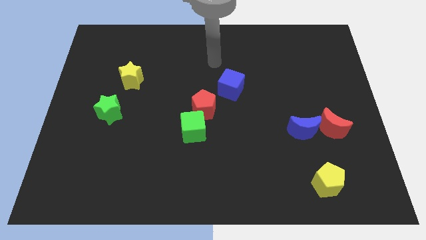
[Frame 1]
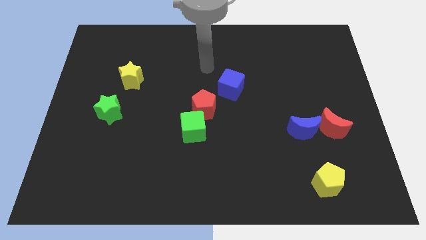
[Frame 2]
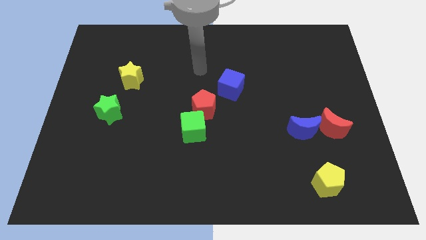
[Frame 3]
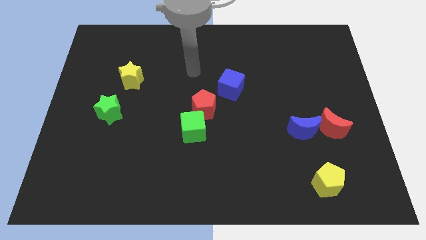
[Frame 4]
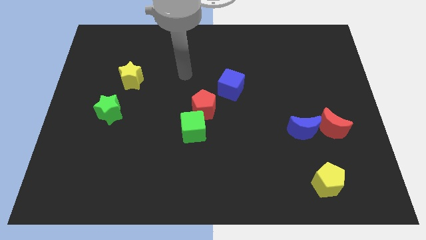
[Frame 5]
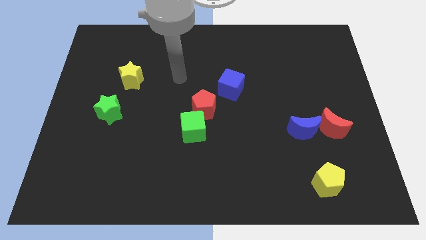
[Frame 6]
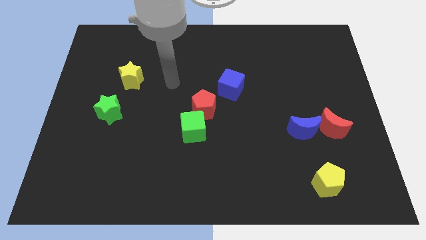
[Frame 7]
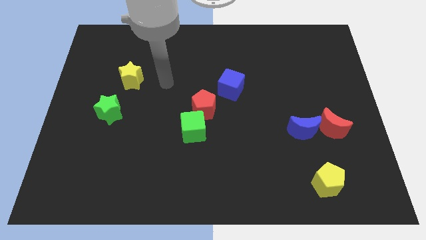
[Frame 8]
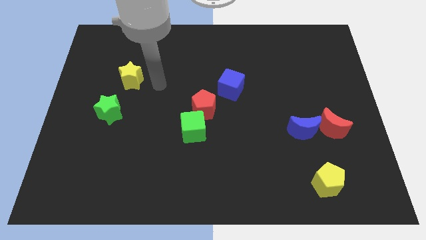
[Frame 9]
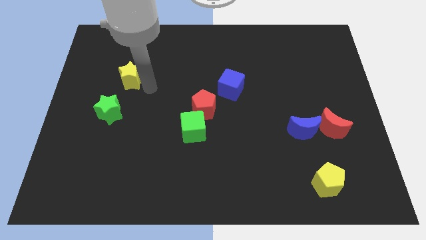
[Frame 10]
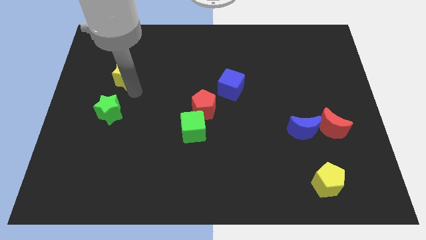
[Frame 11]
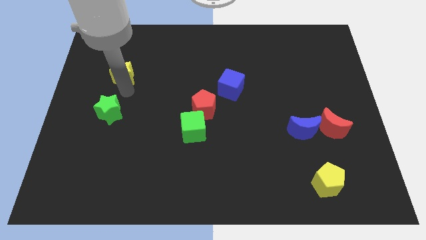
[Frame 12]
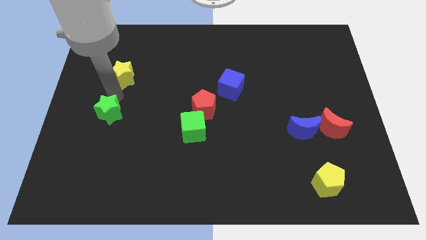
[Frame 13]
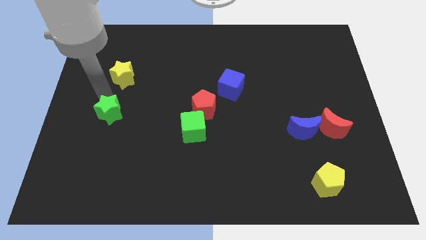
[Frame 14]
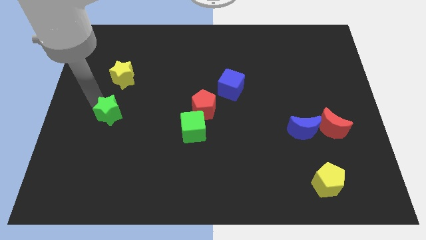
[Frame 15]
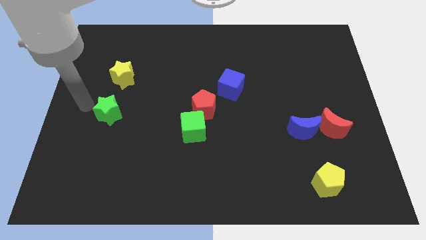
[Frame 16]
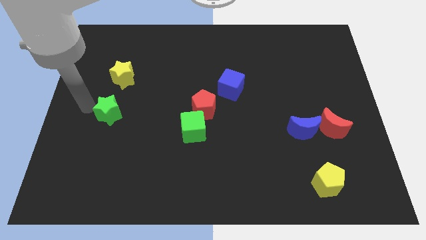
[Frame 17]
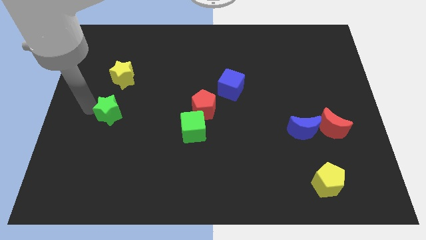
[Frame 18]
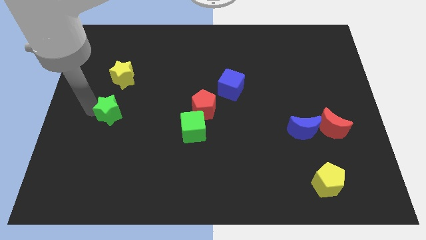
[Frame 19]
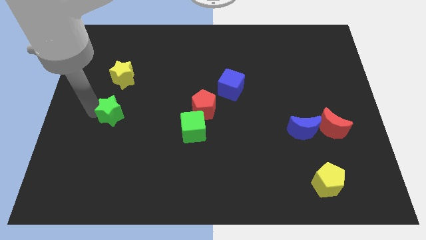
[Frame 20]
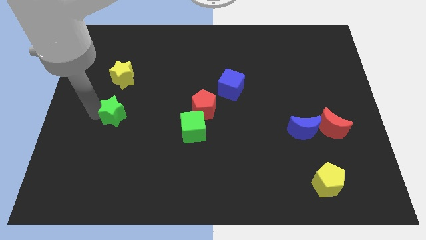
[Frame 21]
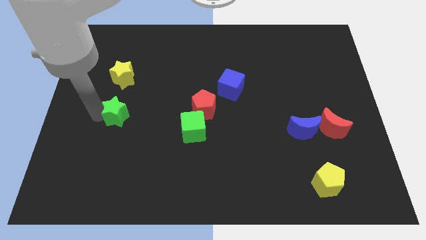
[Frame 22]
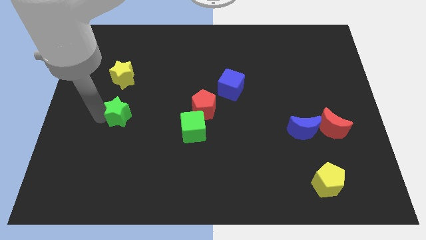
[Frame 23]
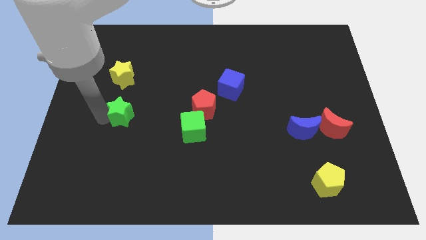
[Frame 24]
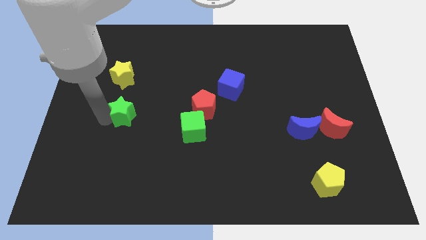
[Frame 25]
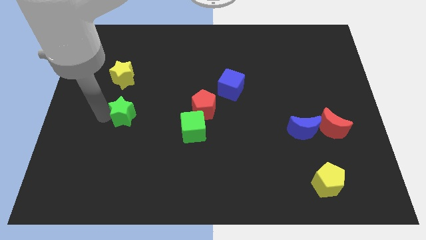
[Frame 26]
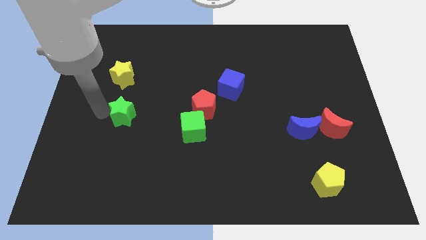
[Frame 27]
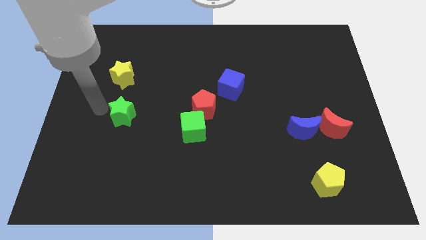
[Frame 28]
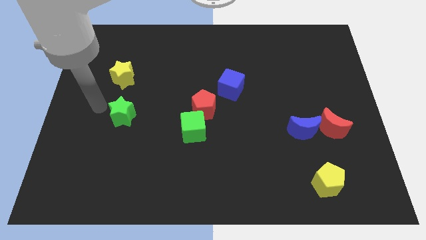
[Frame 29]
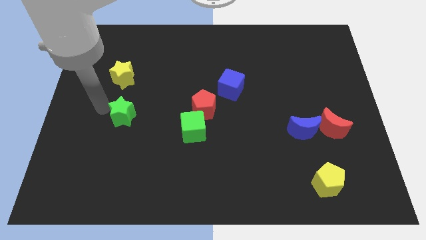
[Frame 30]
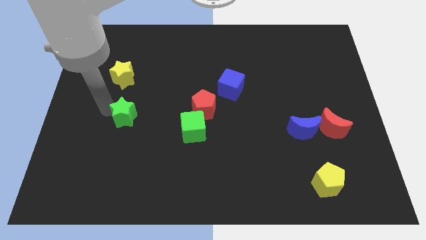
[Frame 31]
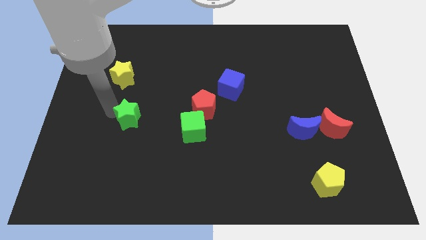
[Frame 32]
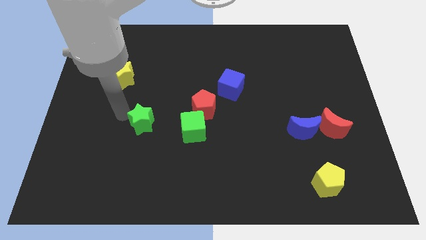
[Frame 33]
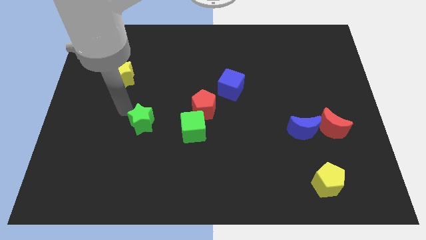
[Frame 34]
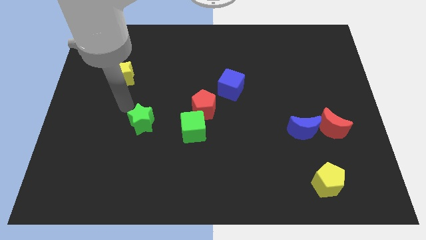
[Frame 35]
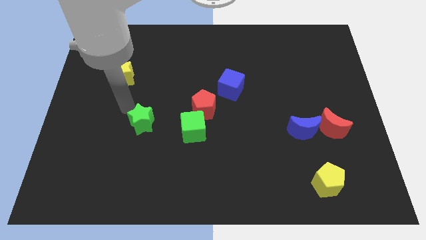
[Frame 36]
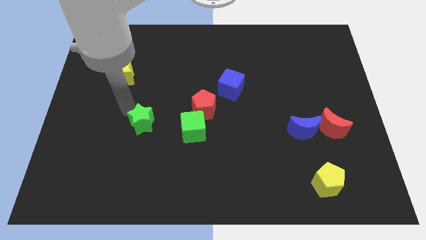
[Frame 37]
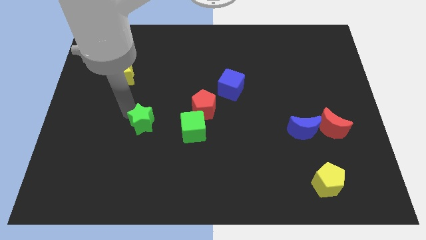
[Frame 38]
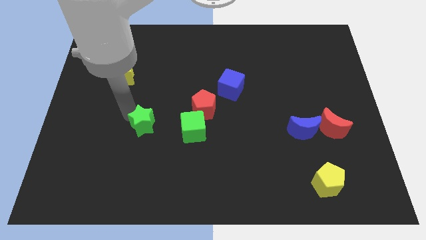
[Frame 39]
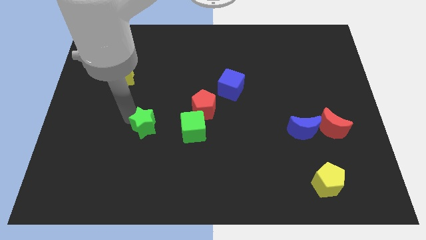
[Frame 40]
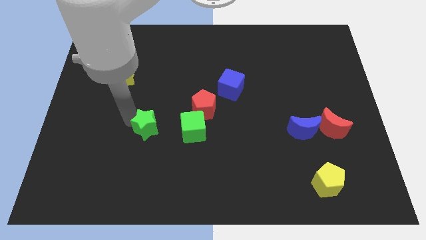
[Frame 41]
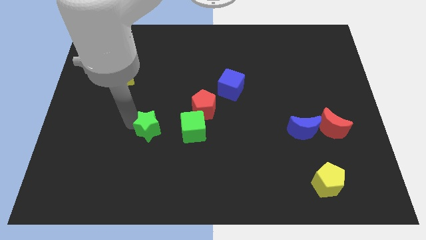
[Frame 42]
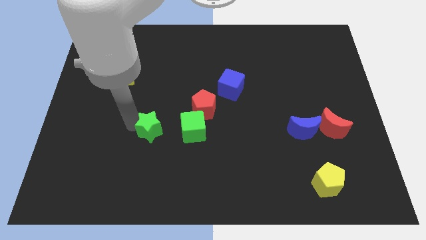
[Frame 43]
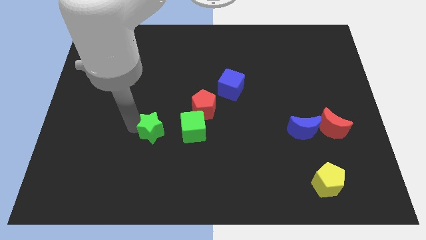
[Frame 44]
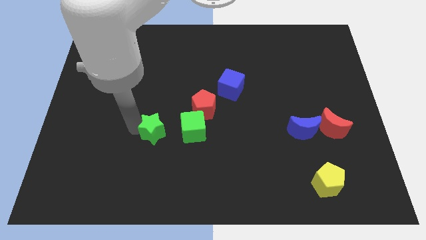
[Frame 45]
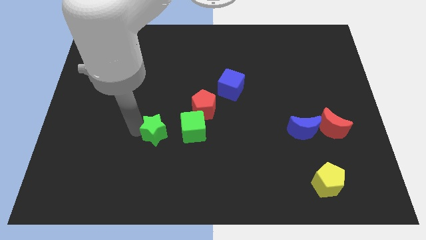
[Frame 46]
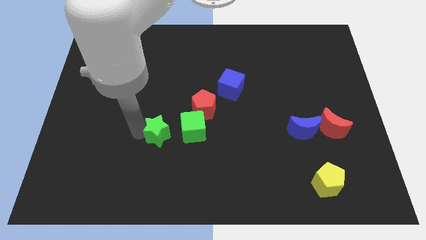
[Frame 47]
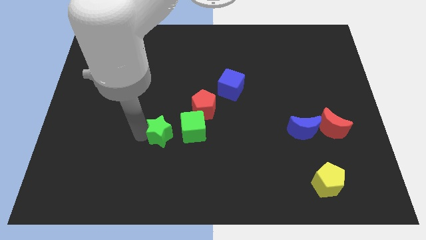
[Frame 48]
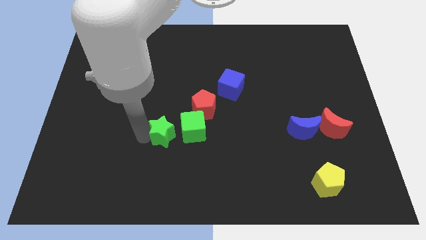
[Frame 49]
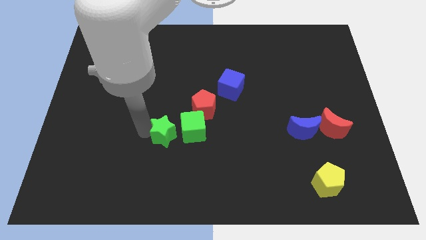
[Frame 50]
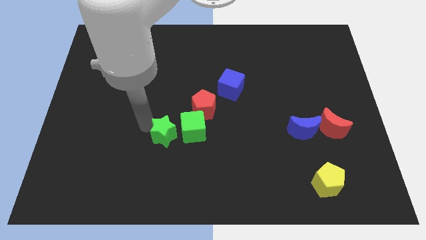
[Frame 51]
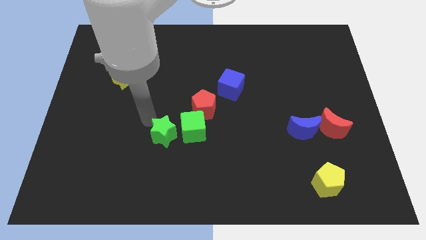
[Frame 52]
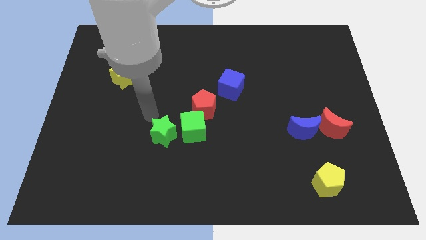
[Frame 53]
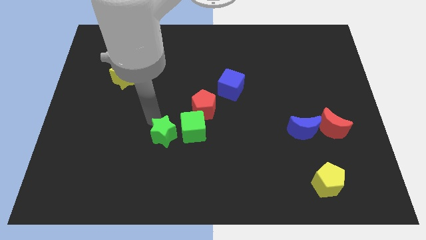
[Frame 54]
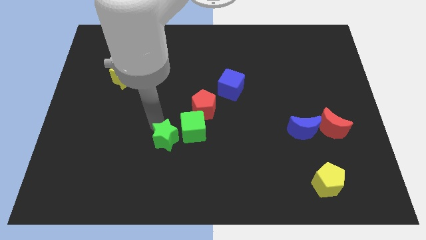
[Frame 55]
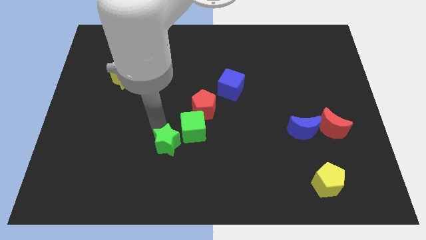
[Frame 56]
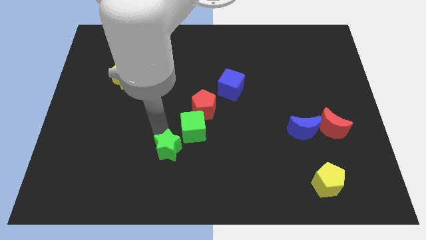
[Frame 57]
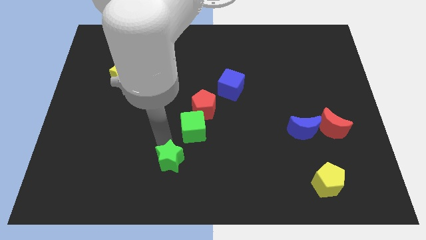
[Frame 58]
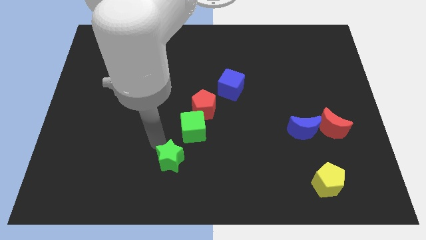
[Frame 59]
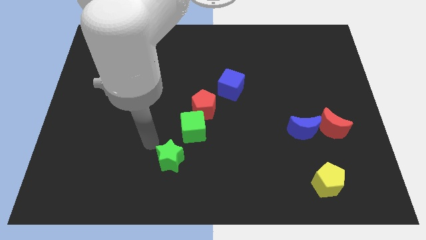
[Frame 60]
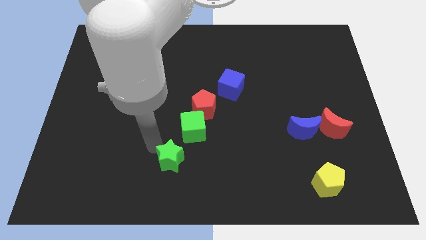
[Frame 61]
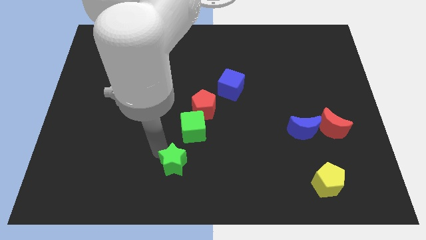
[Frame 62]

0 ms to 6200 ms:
push the green star to the bottom side
